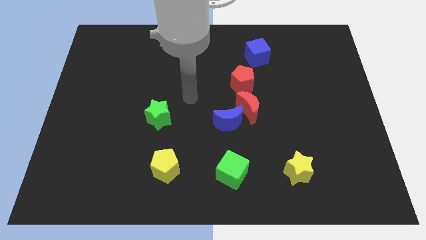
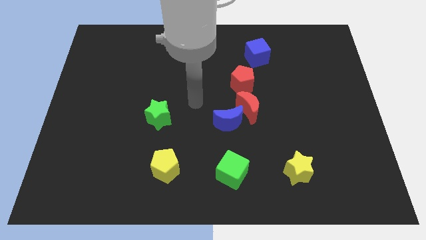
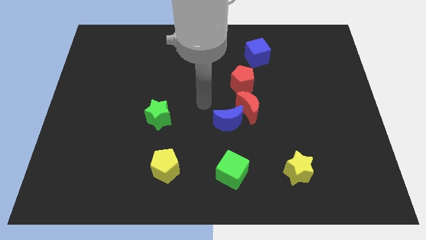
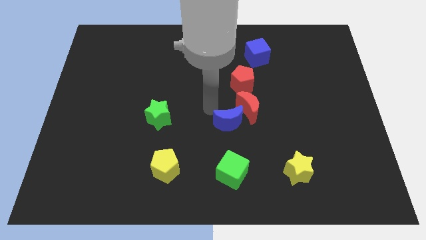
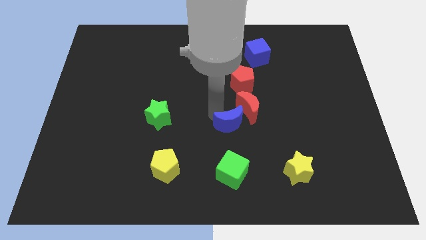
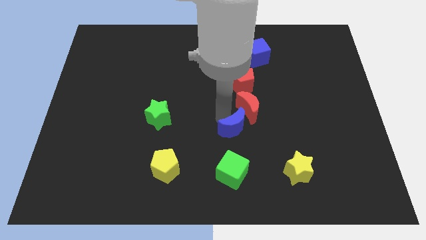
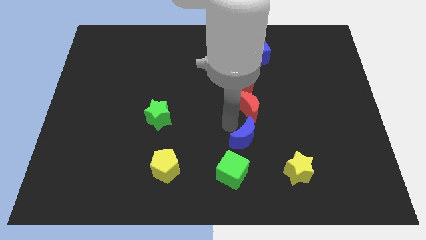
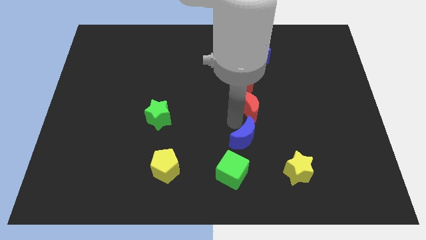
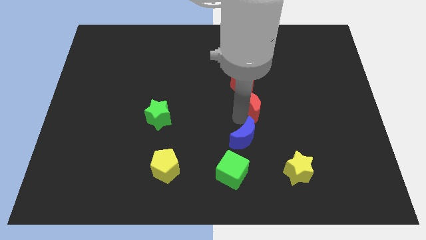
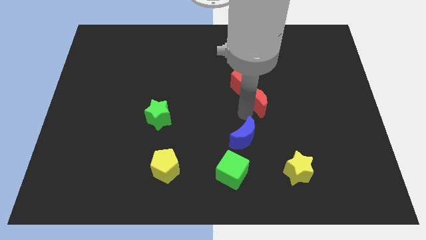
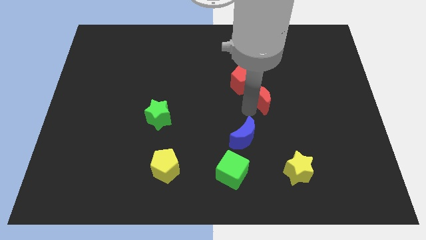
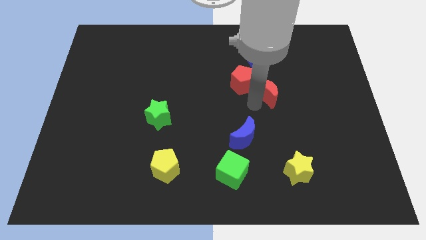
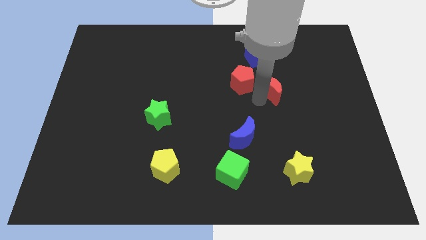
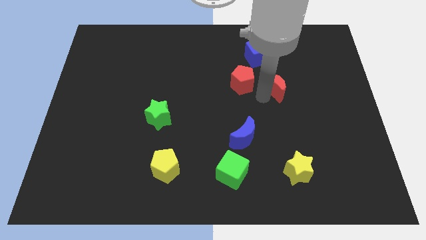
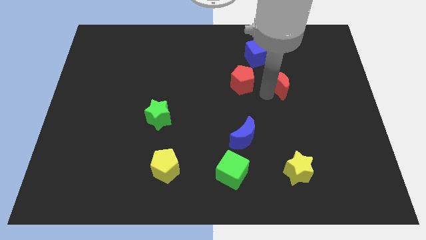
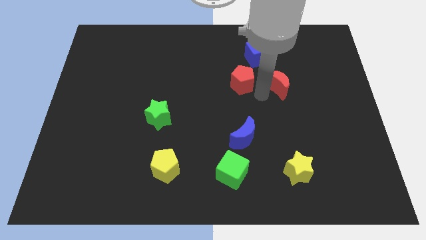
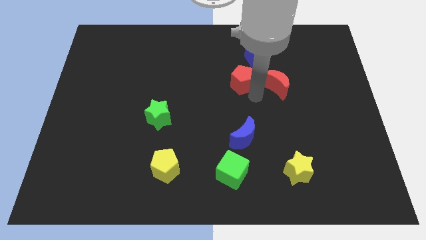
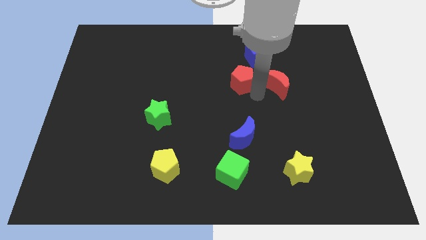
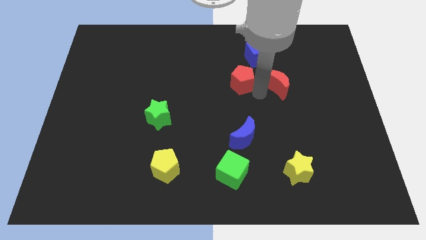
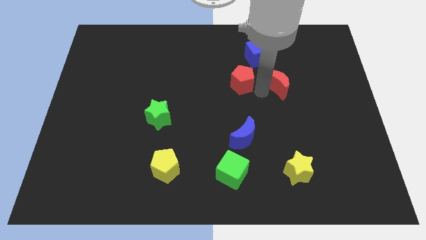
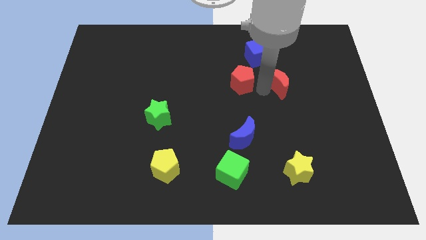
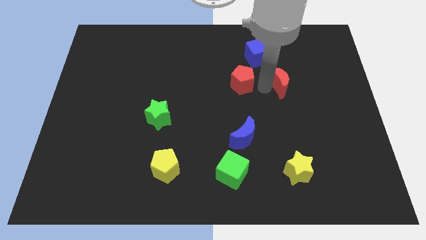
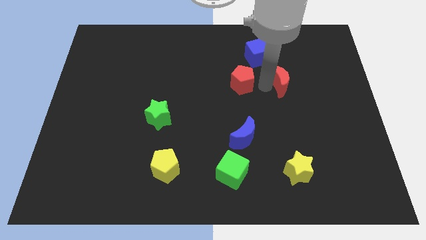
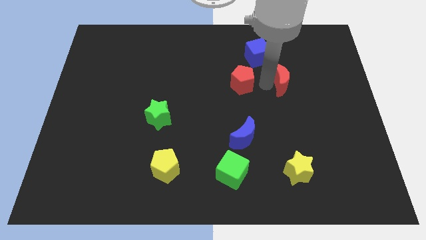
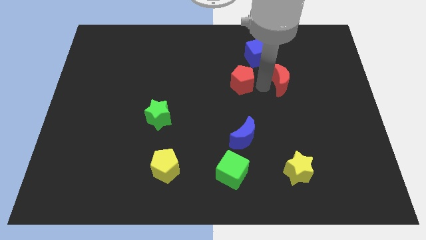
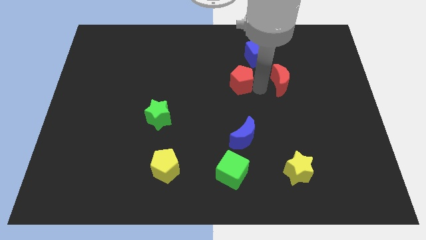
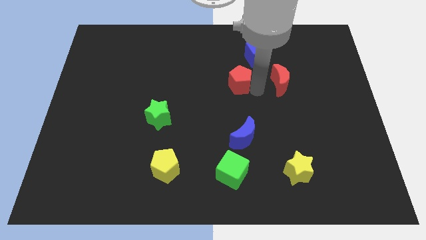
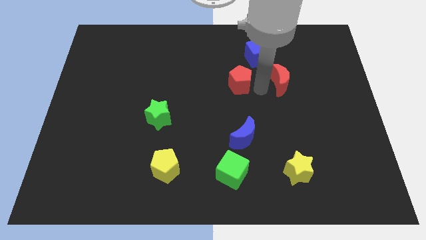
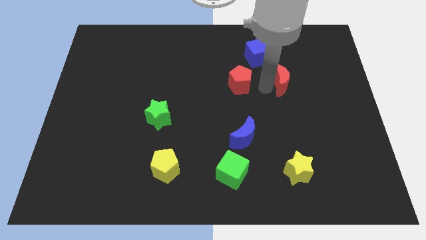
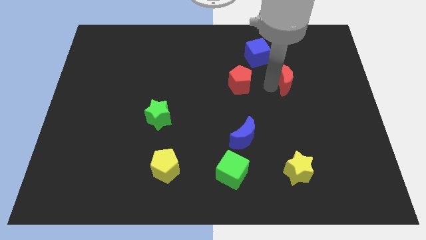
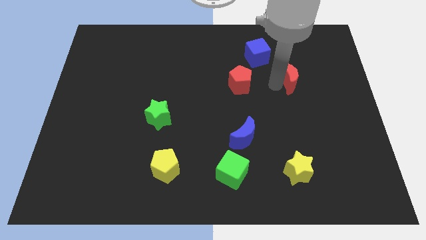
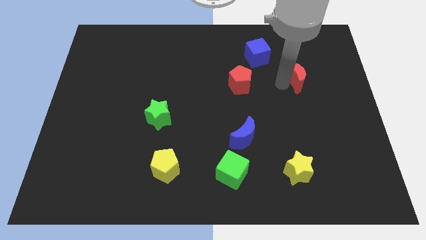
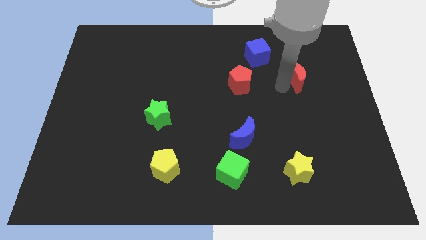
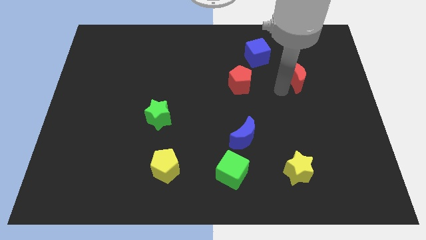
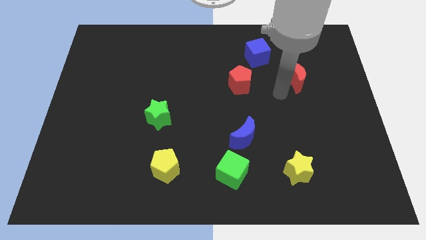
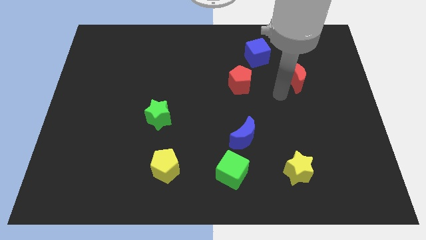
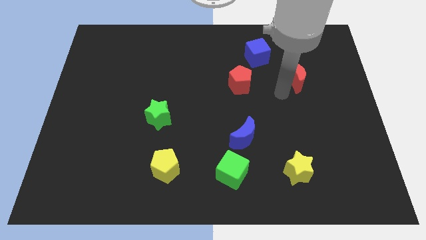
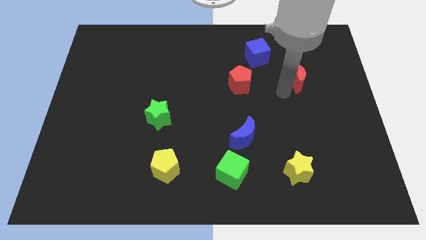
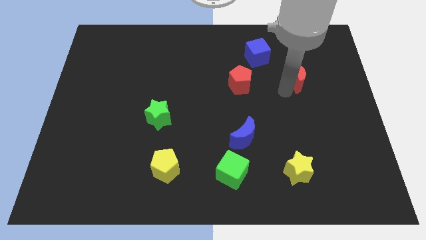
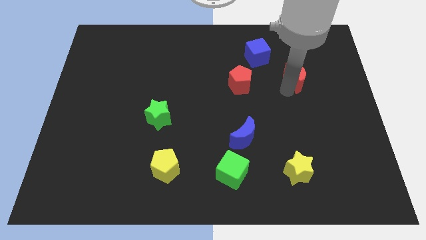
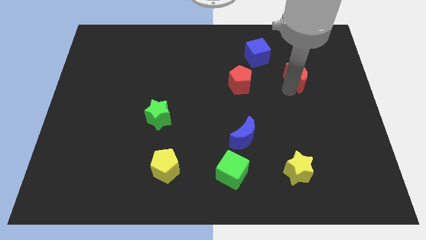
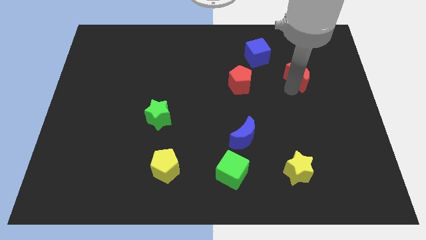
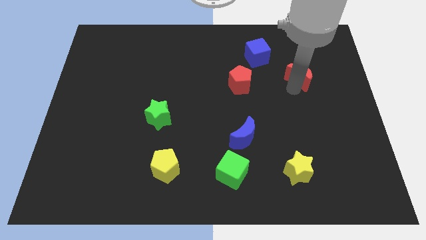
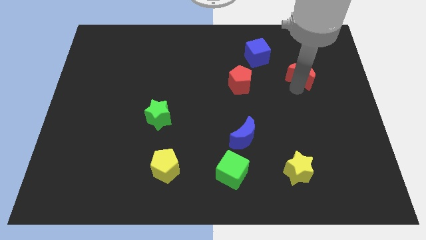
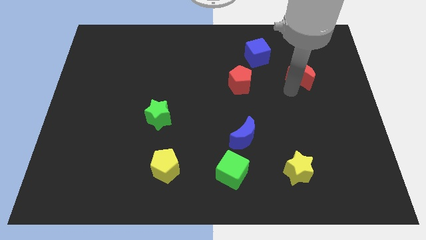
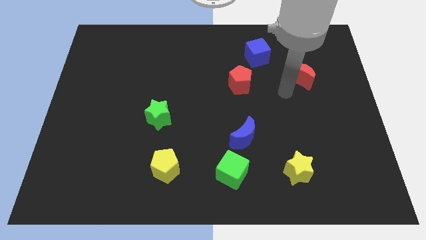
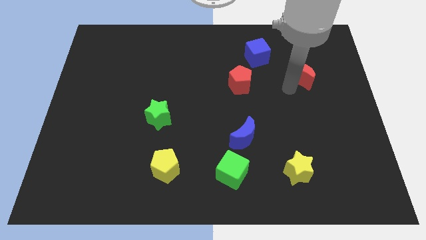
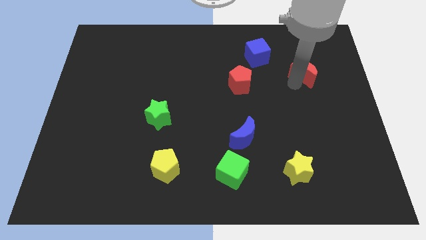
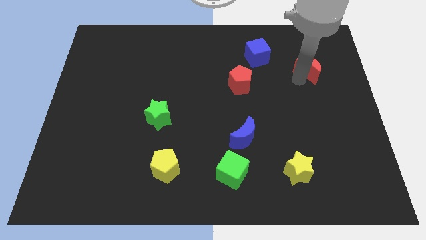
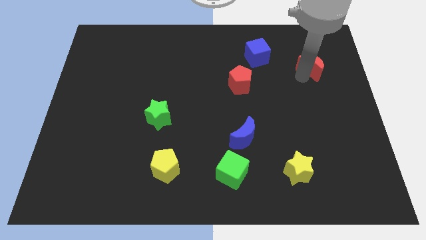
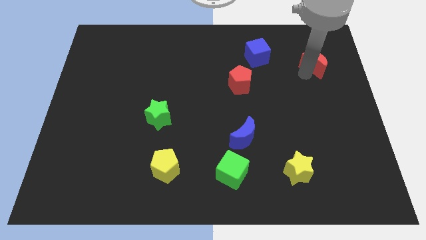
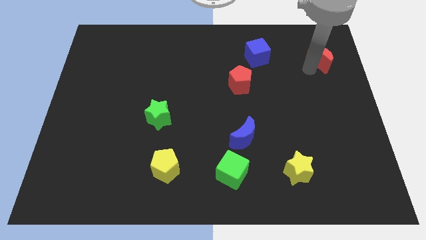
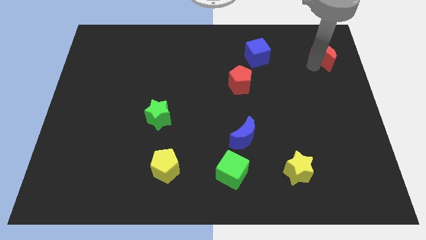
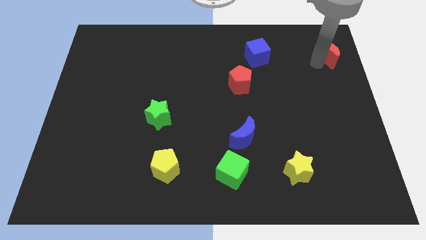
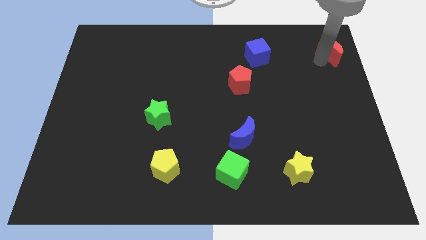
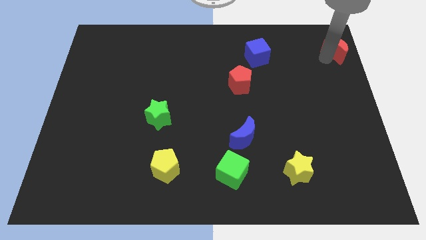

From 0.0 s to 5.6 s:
move the red moon to the top right corner

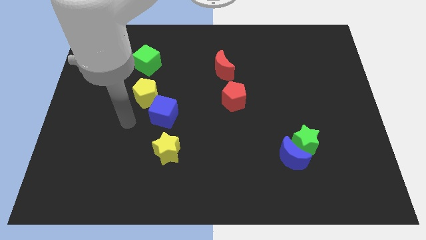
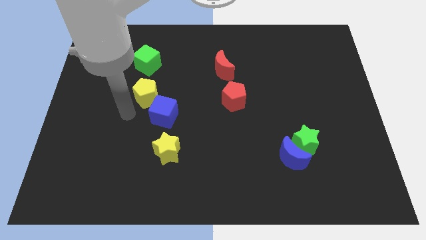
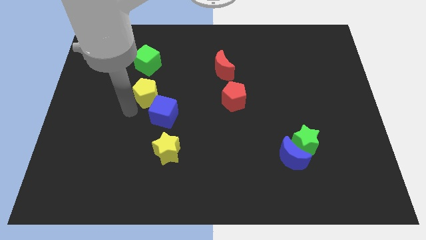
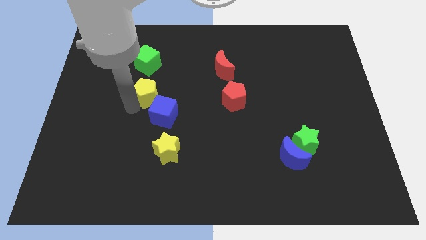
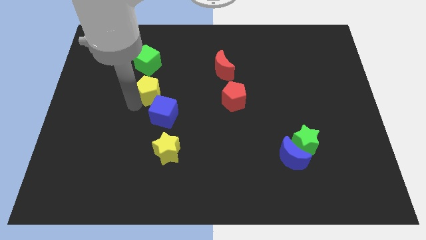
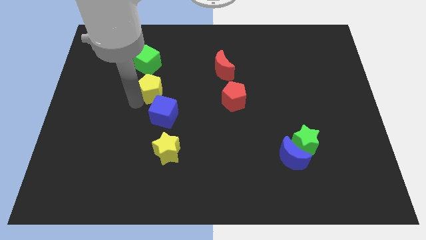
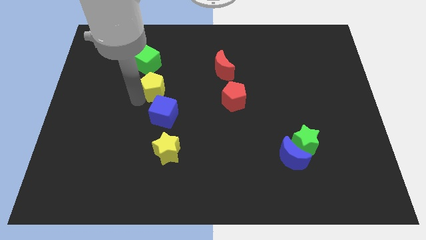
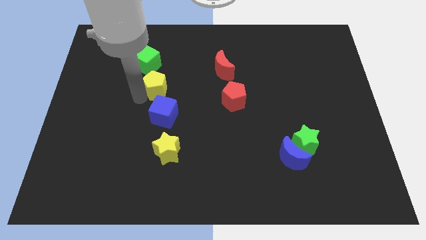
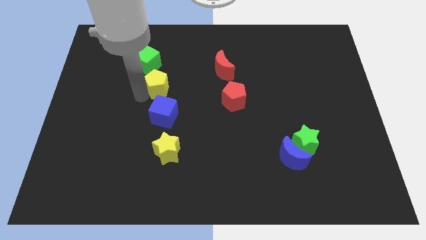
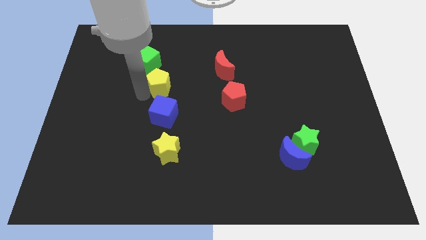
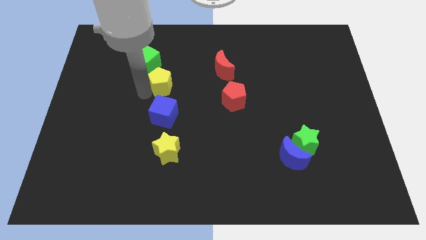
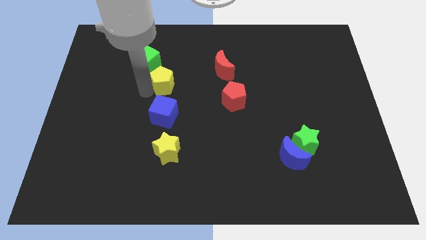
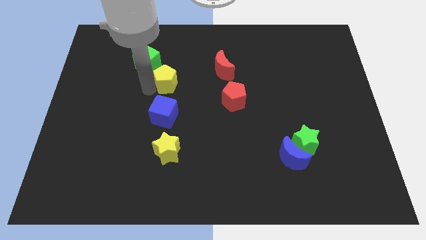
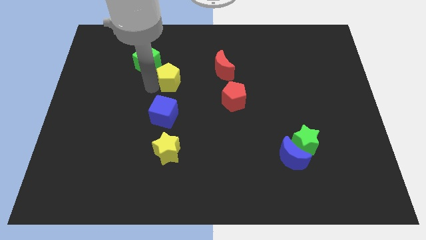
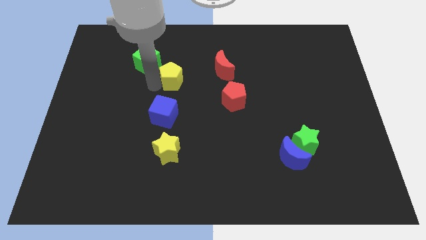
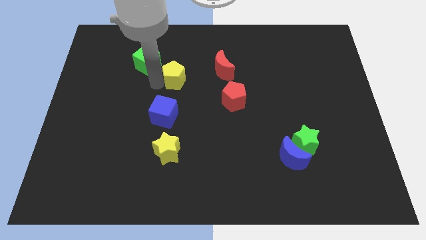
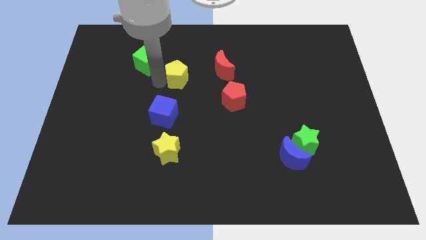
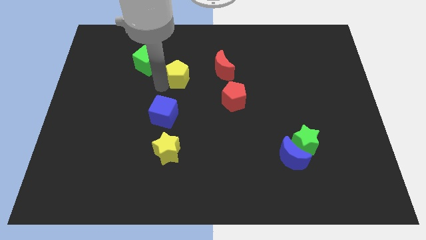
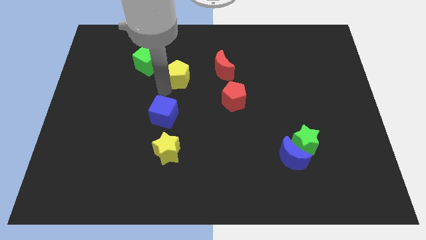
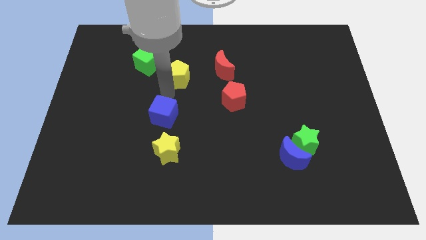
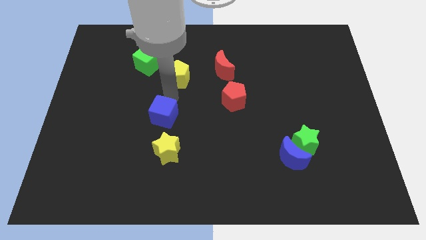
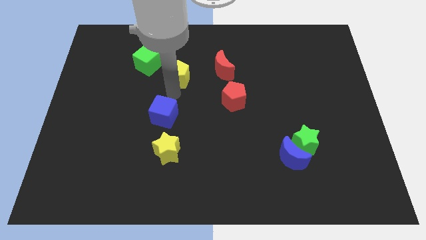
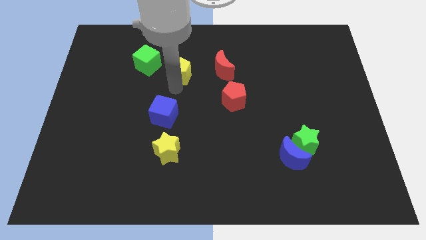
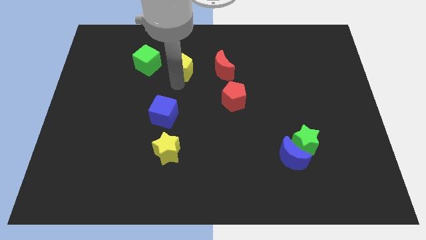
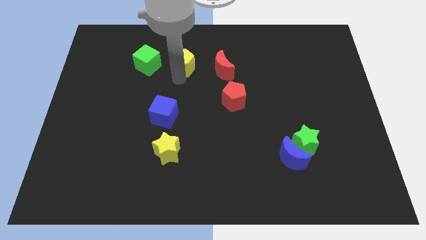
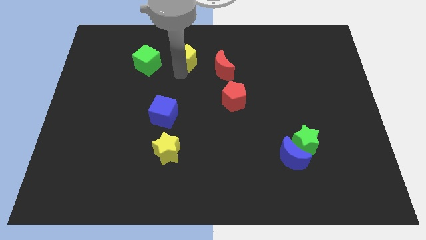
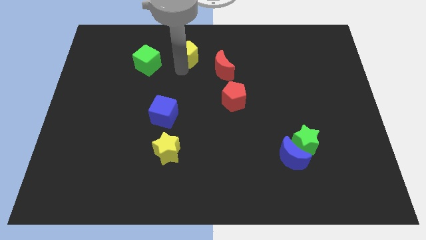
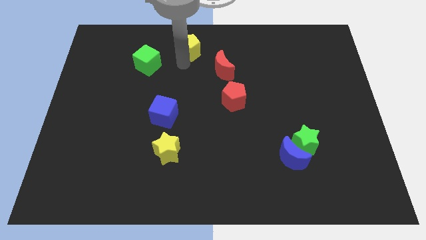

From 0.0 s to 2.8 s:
push the yellow pentagon to the towards your base
